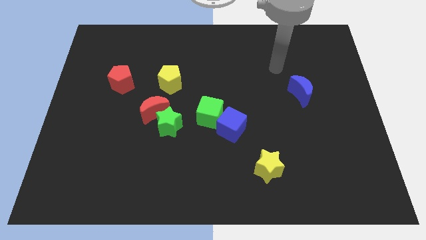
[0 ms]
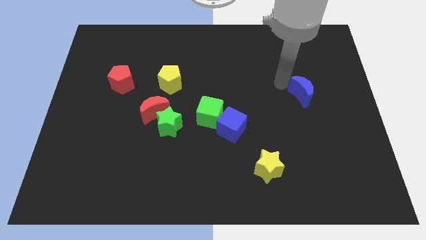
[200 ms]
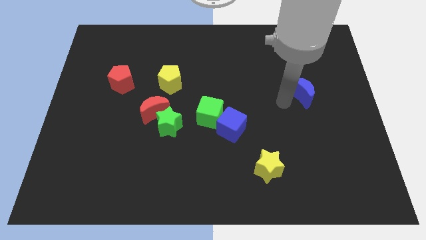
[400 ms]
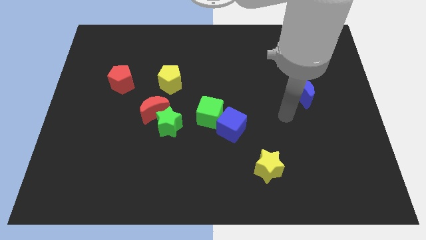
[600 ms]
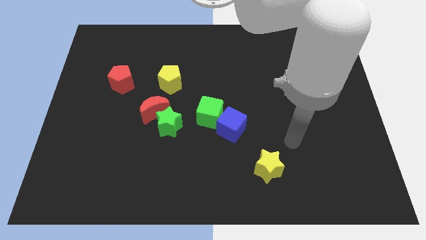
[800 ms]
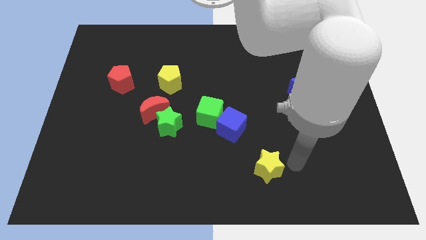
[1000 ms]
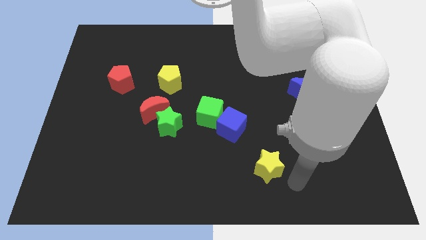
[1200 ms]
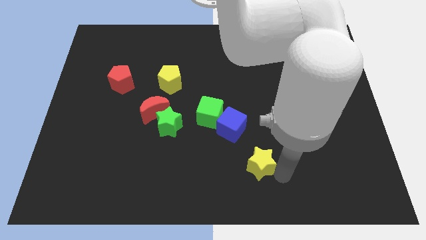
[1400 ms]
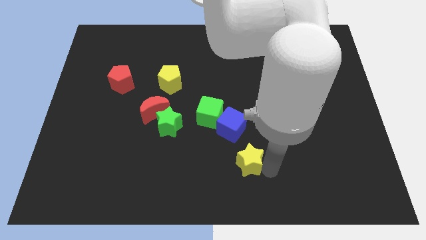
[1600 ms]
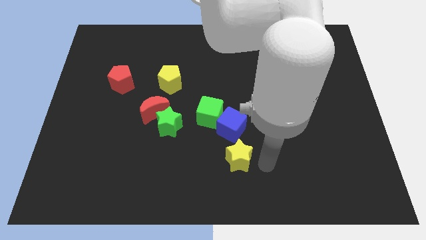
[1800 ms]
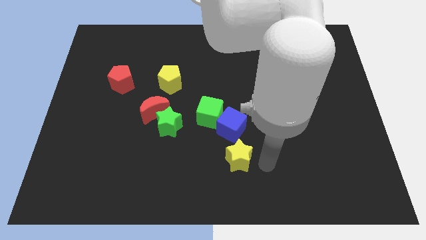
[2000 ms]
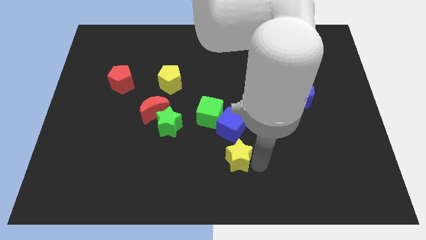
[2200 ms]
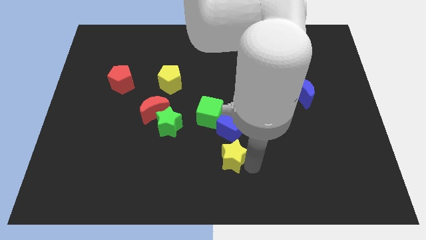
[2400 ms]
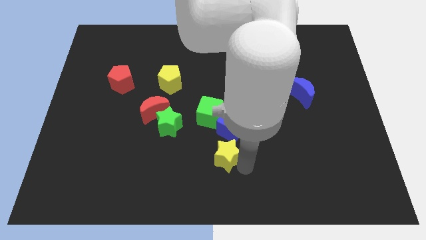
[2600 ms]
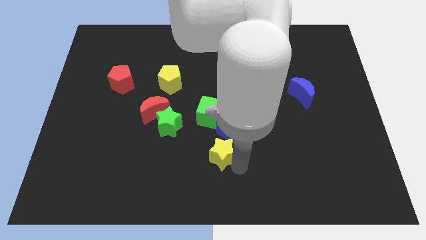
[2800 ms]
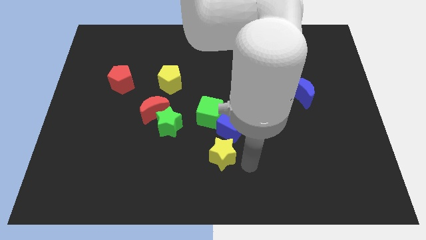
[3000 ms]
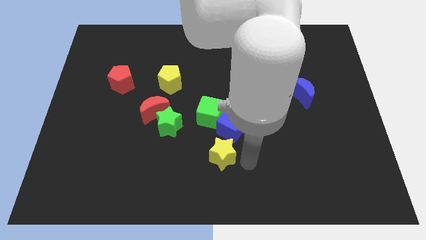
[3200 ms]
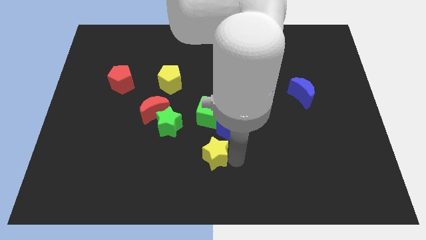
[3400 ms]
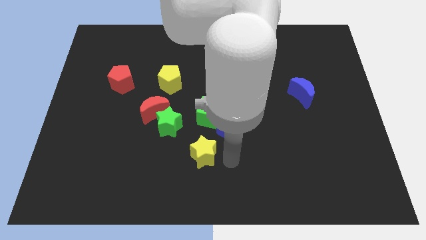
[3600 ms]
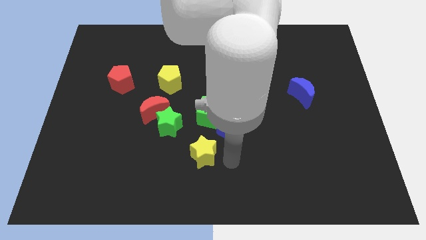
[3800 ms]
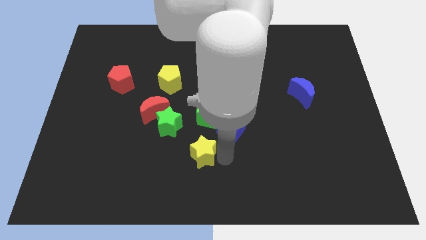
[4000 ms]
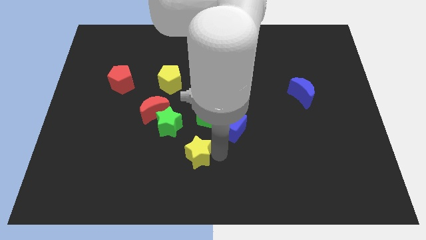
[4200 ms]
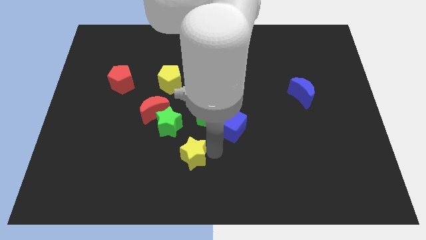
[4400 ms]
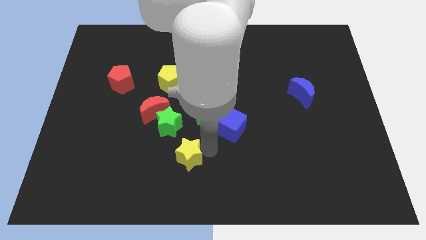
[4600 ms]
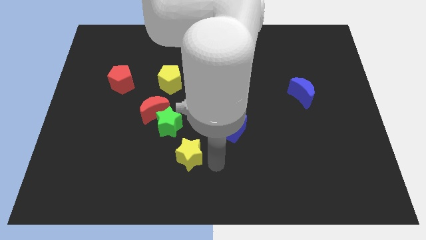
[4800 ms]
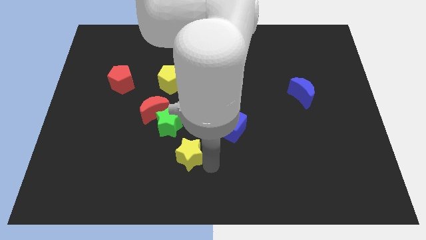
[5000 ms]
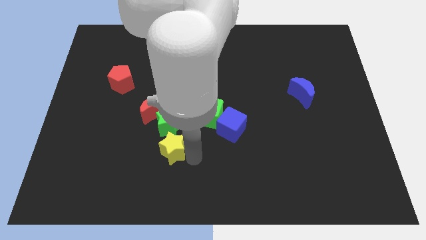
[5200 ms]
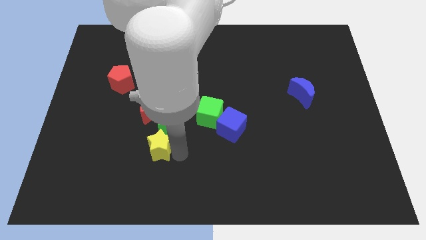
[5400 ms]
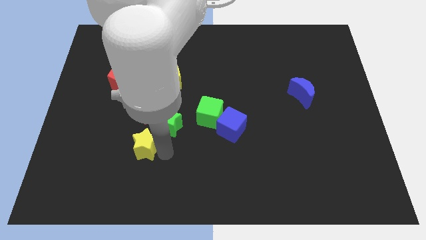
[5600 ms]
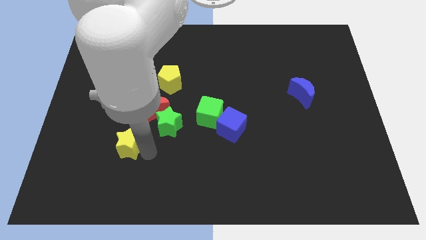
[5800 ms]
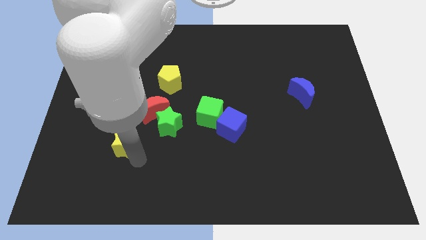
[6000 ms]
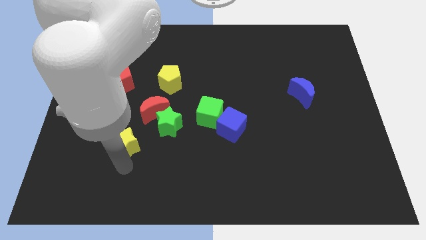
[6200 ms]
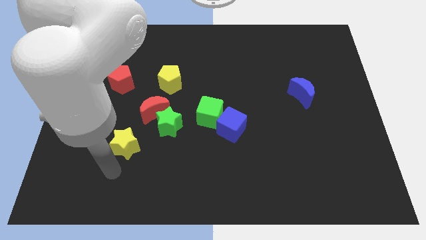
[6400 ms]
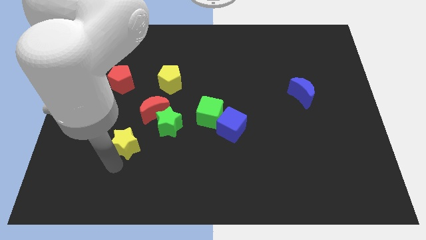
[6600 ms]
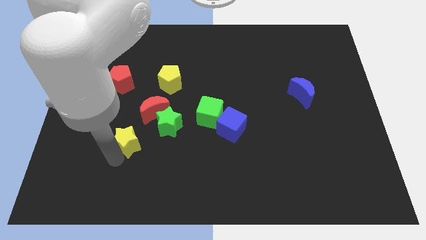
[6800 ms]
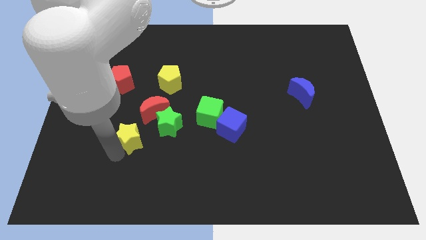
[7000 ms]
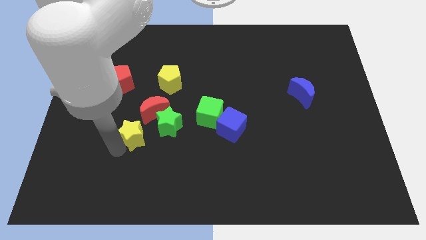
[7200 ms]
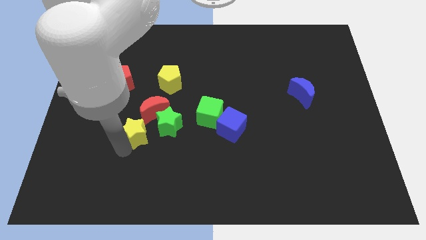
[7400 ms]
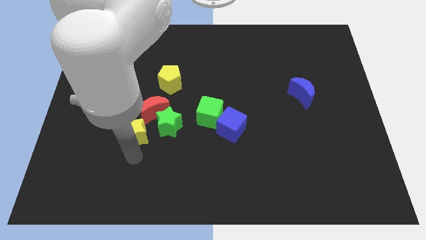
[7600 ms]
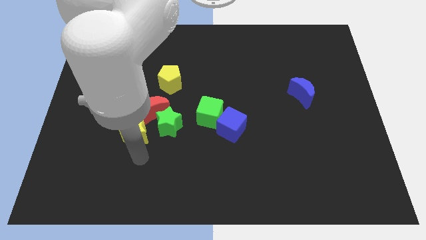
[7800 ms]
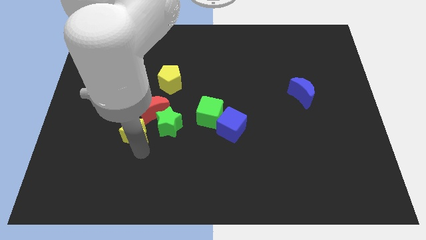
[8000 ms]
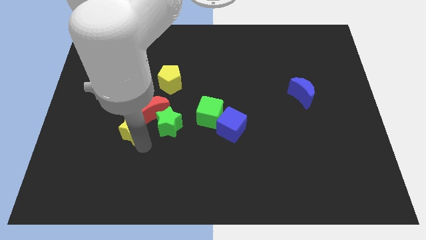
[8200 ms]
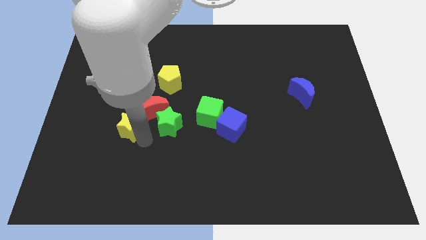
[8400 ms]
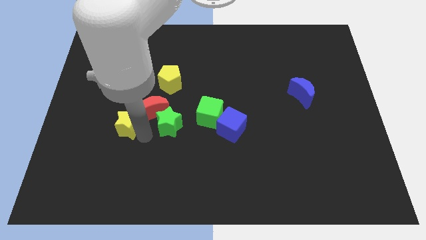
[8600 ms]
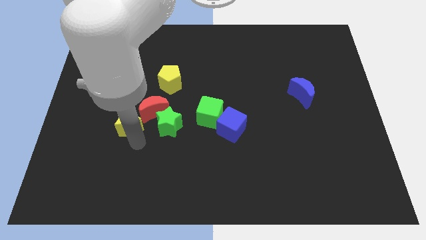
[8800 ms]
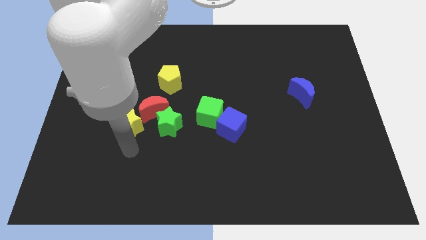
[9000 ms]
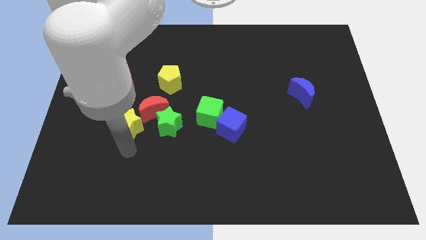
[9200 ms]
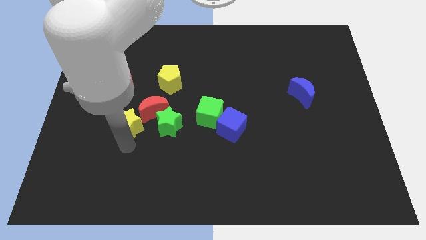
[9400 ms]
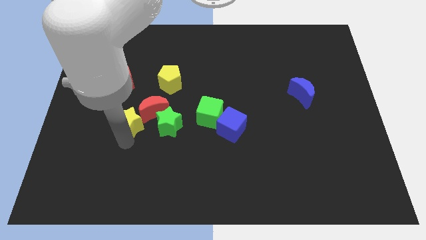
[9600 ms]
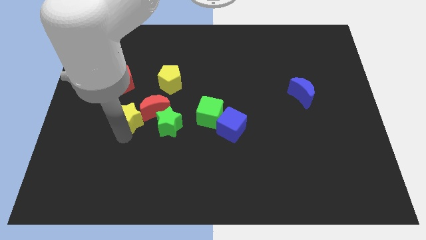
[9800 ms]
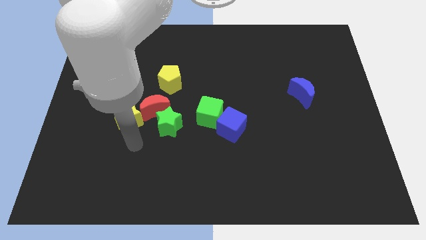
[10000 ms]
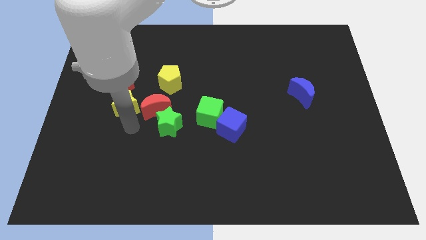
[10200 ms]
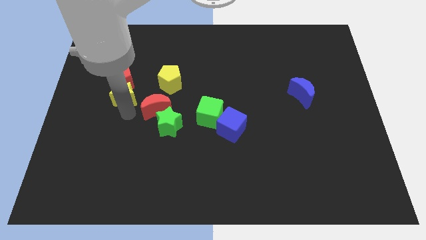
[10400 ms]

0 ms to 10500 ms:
move the yellow star to the red pentagon

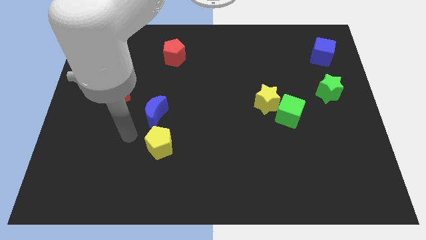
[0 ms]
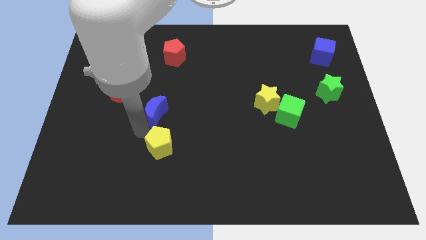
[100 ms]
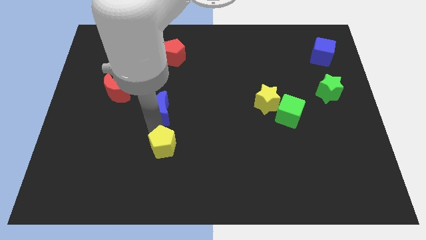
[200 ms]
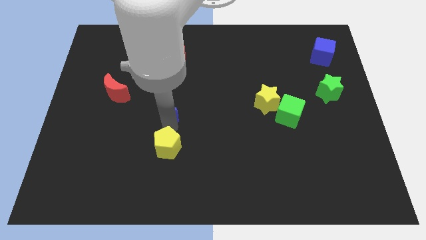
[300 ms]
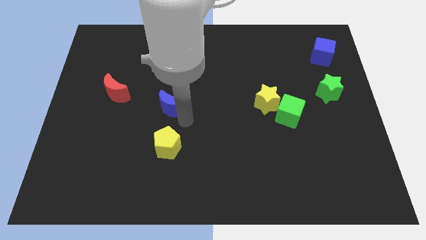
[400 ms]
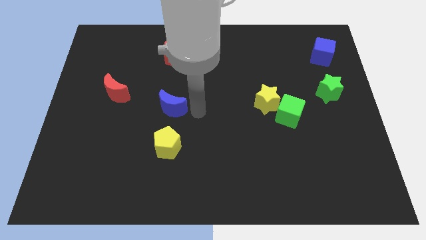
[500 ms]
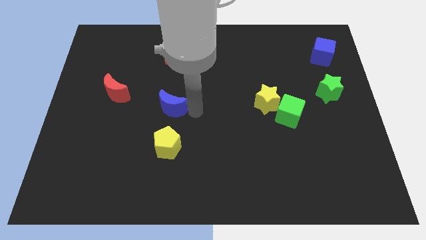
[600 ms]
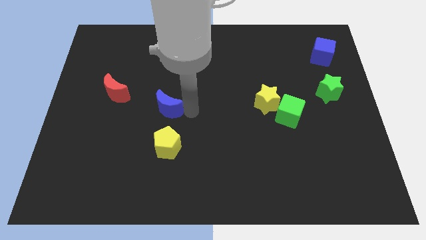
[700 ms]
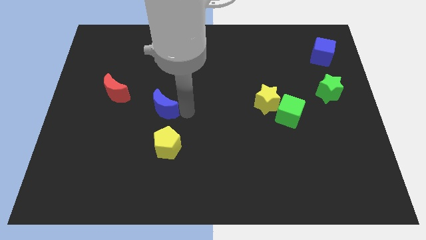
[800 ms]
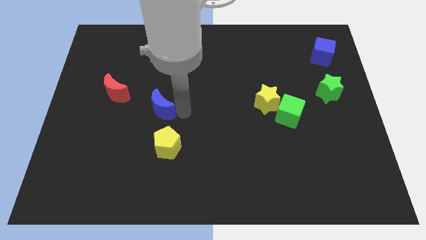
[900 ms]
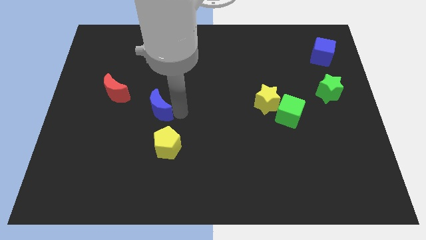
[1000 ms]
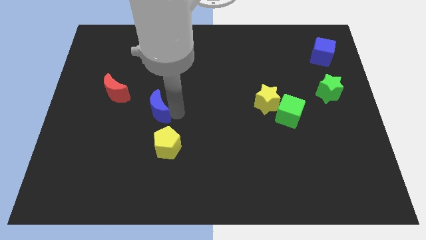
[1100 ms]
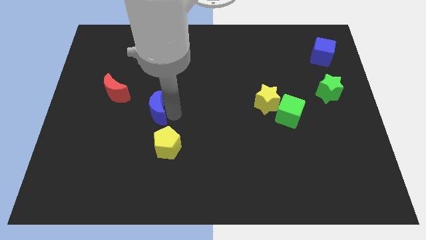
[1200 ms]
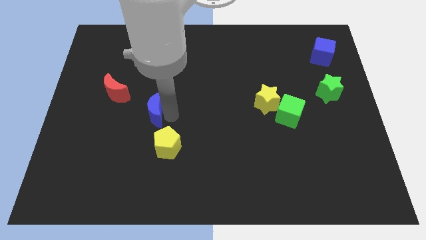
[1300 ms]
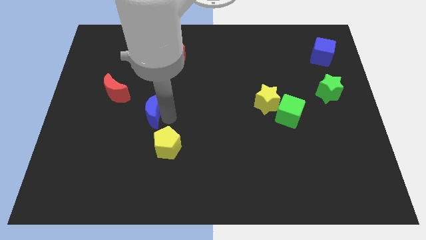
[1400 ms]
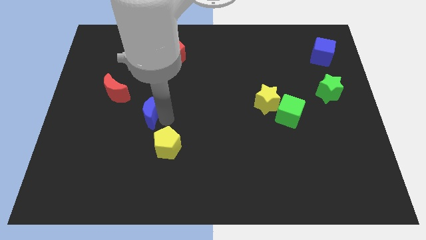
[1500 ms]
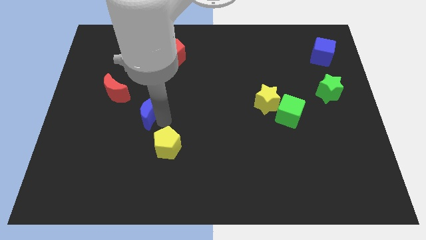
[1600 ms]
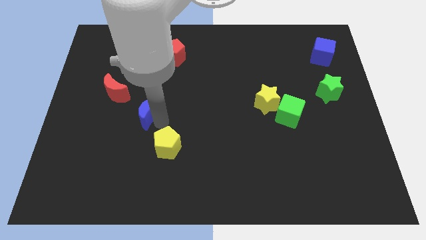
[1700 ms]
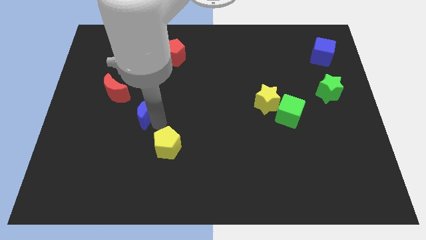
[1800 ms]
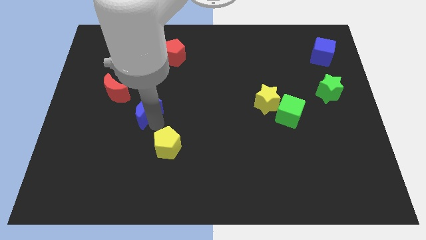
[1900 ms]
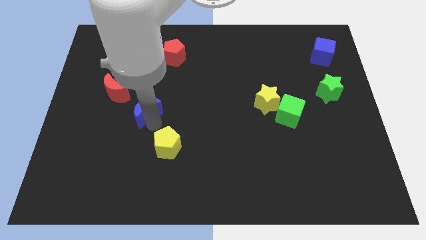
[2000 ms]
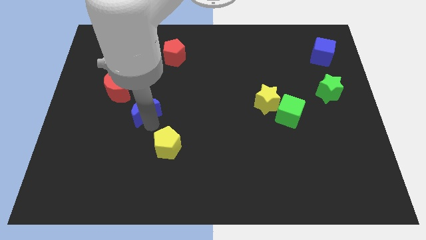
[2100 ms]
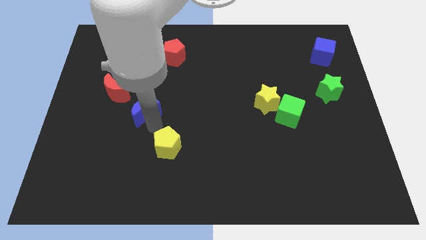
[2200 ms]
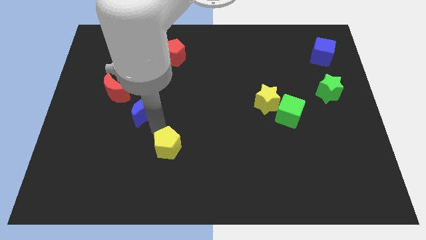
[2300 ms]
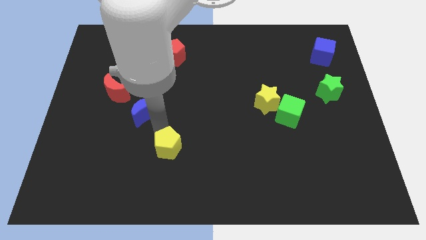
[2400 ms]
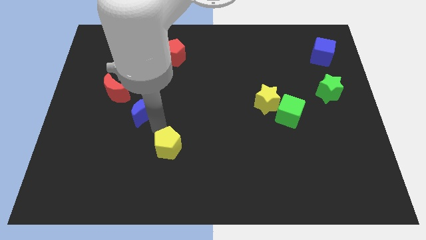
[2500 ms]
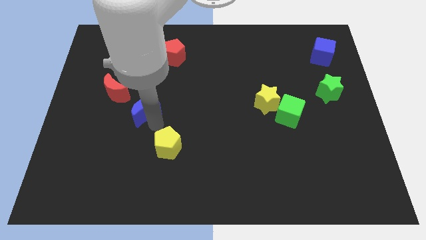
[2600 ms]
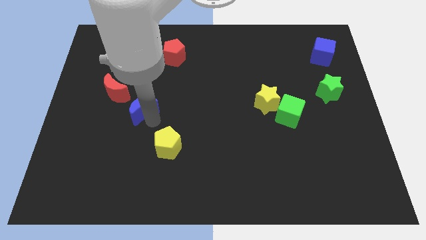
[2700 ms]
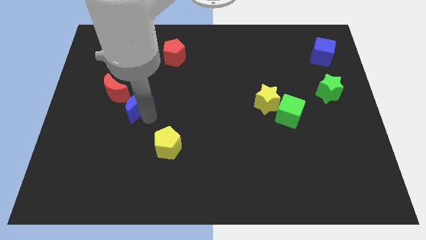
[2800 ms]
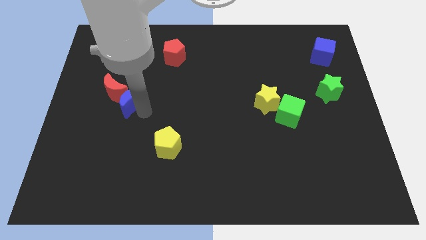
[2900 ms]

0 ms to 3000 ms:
push the blue moon towards the red moon
